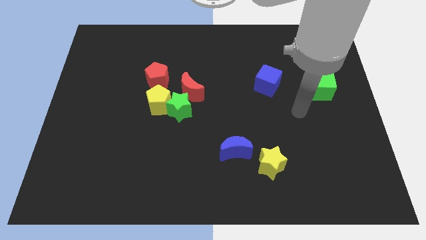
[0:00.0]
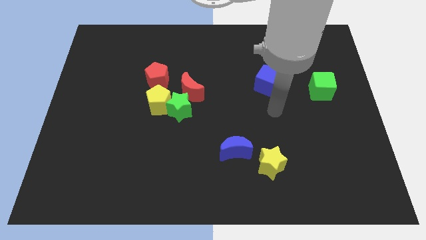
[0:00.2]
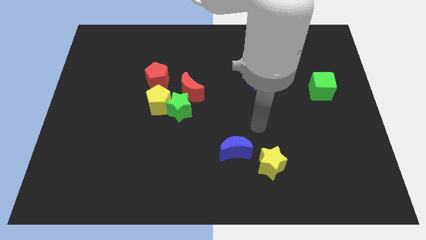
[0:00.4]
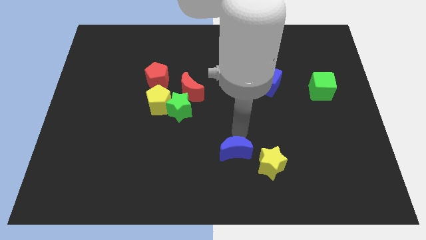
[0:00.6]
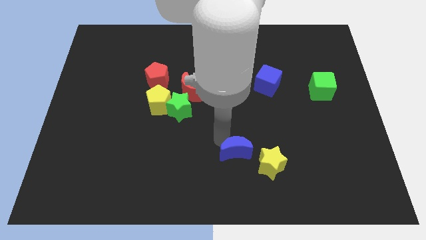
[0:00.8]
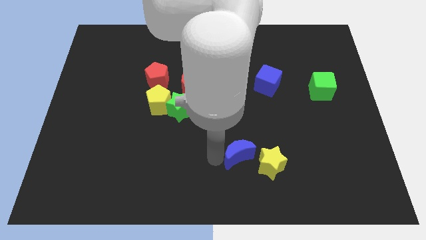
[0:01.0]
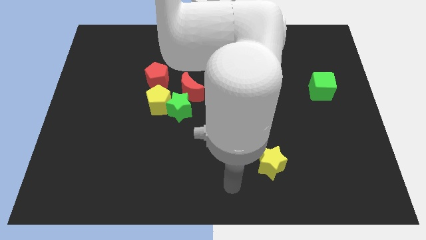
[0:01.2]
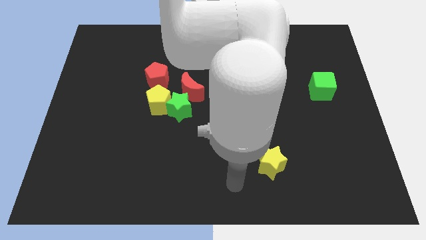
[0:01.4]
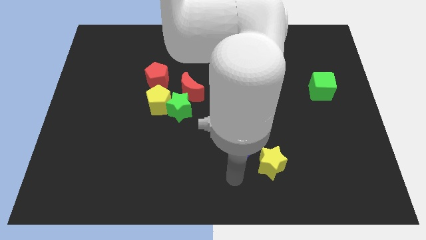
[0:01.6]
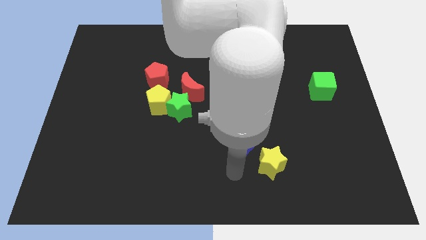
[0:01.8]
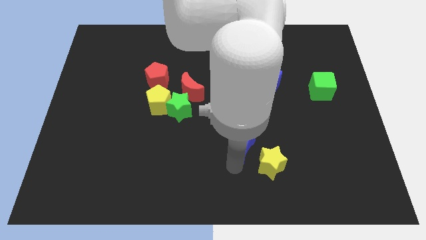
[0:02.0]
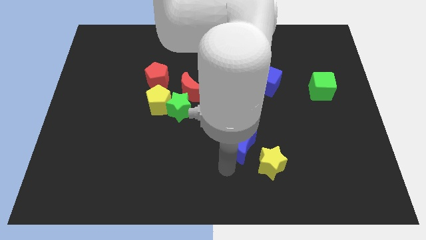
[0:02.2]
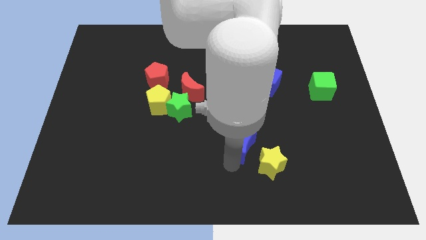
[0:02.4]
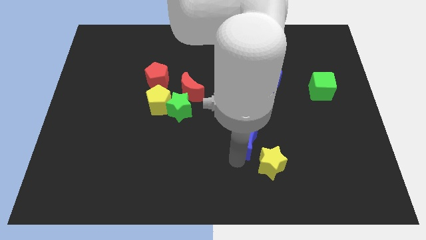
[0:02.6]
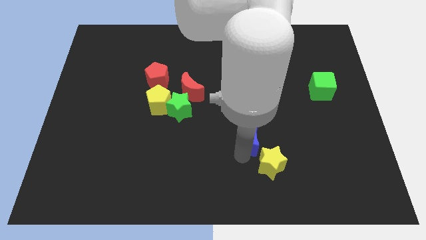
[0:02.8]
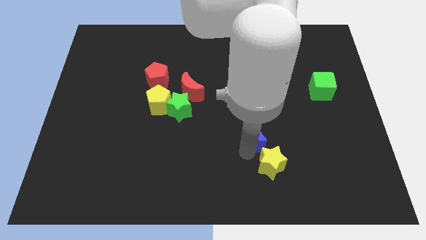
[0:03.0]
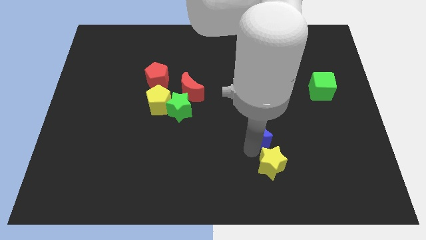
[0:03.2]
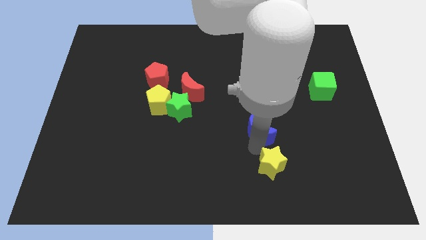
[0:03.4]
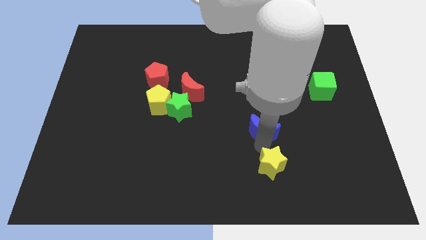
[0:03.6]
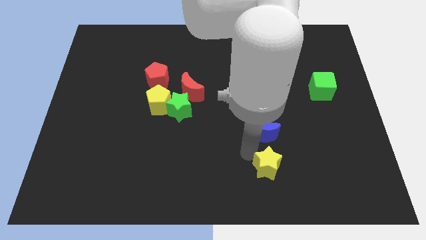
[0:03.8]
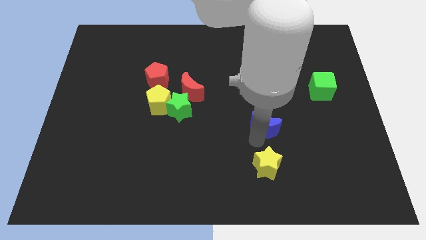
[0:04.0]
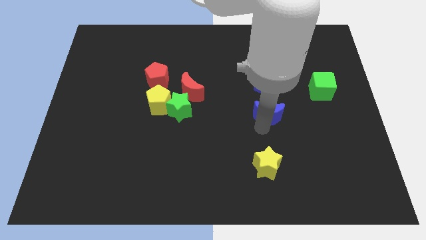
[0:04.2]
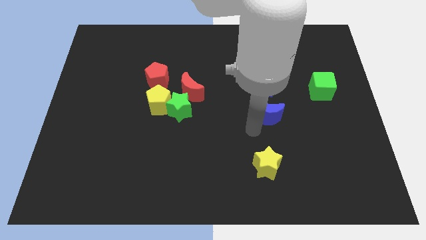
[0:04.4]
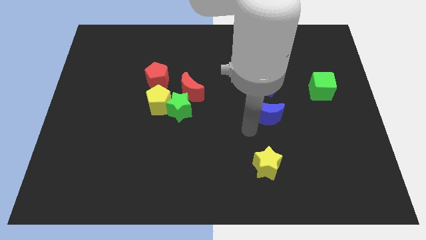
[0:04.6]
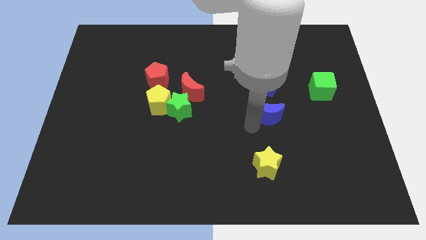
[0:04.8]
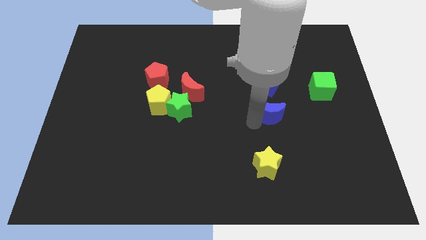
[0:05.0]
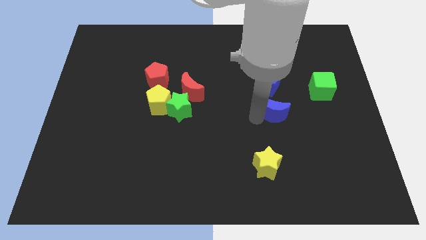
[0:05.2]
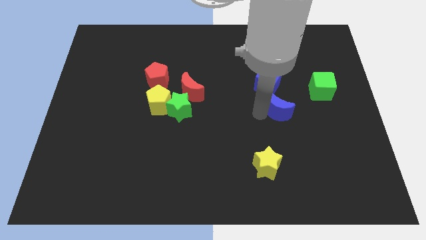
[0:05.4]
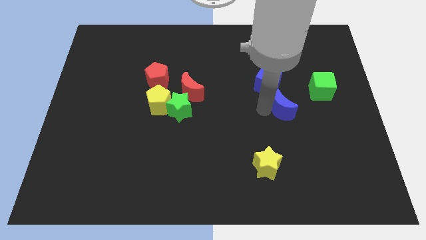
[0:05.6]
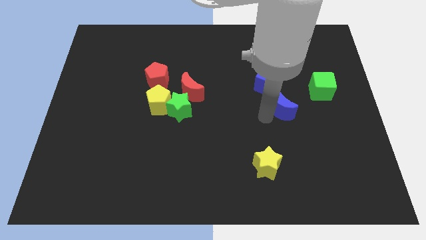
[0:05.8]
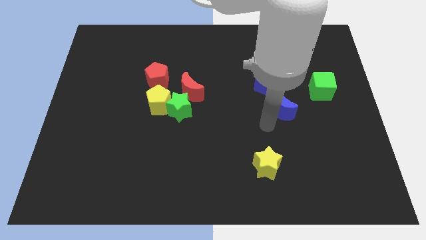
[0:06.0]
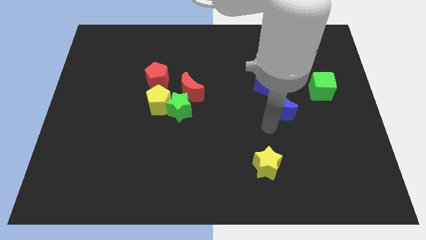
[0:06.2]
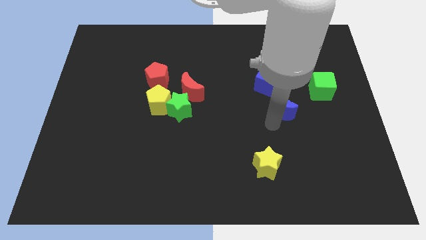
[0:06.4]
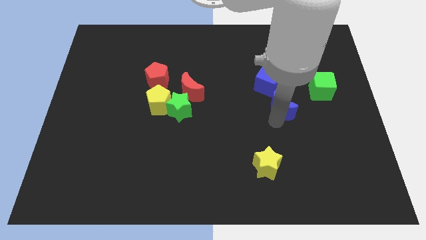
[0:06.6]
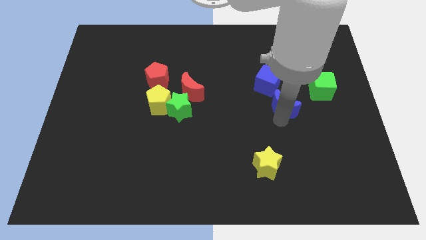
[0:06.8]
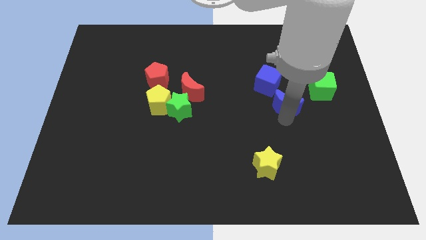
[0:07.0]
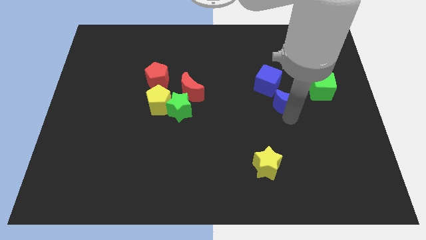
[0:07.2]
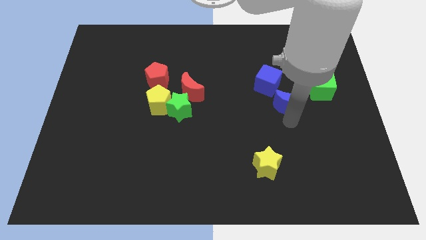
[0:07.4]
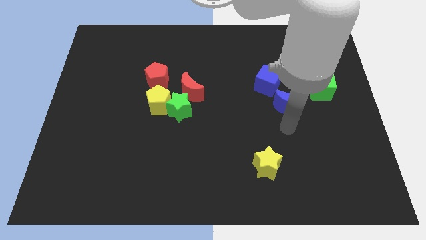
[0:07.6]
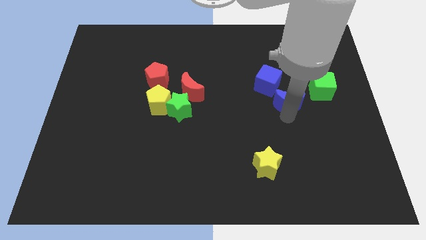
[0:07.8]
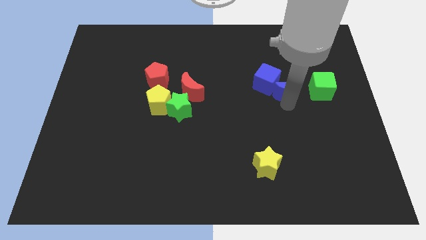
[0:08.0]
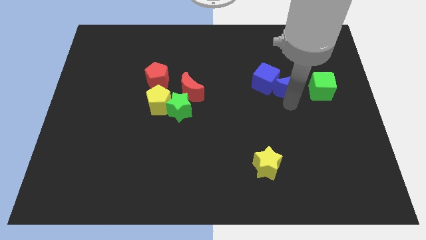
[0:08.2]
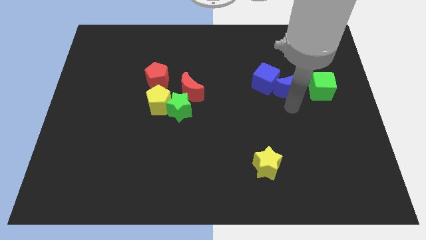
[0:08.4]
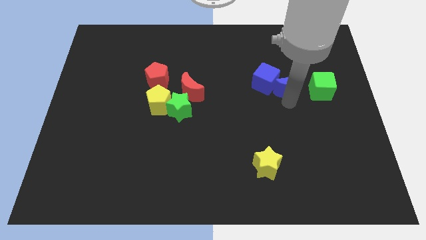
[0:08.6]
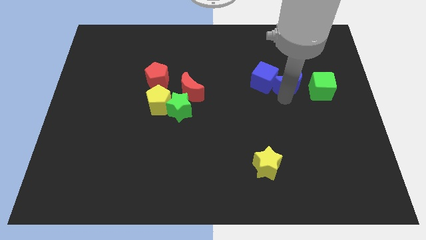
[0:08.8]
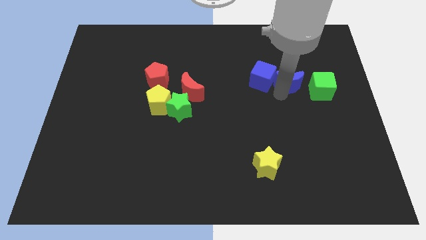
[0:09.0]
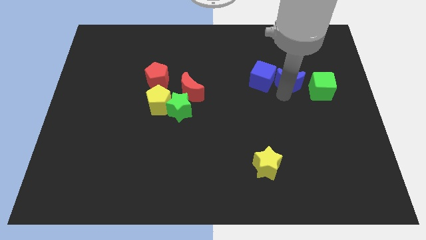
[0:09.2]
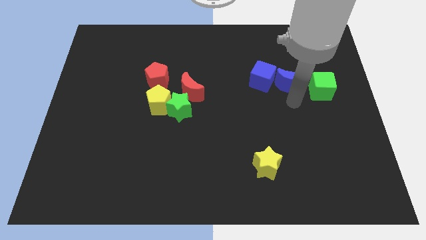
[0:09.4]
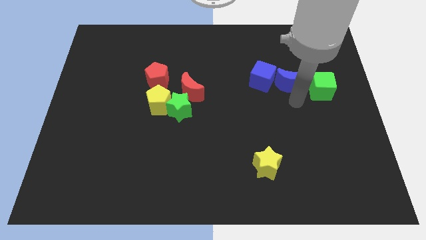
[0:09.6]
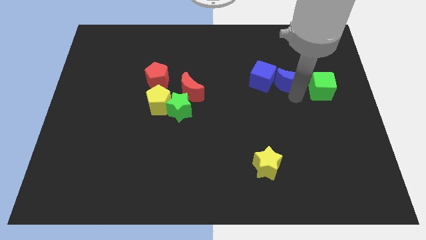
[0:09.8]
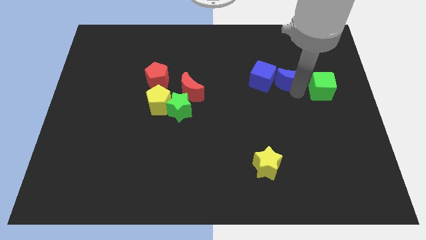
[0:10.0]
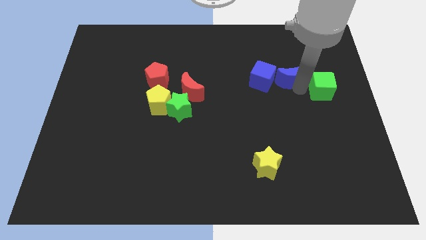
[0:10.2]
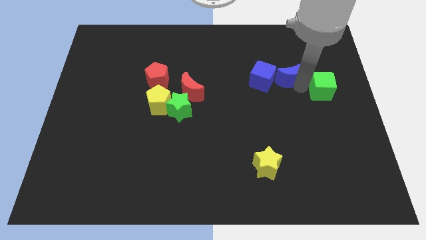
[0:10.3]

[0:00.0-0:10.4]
put the blue moon to the top right of the blue cube

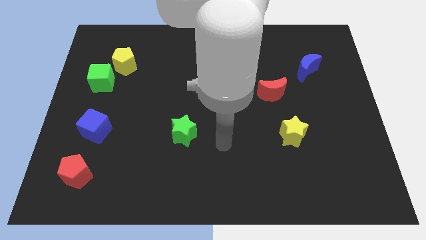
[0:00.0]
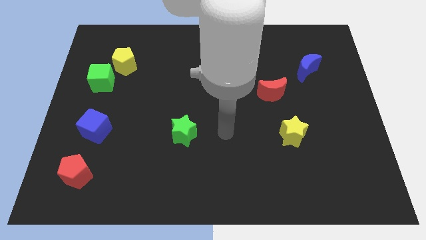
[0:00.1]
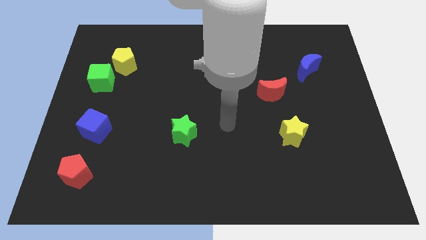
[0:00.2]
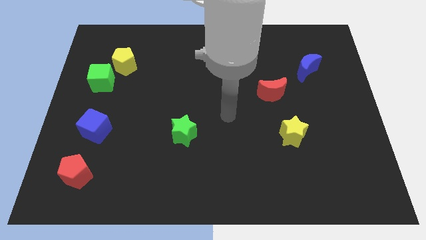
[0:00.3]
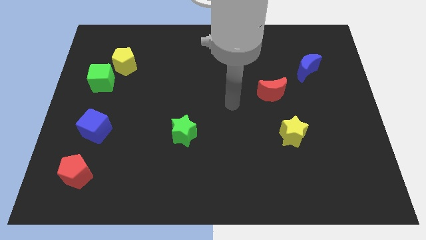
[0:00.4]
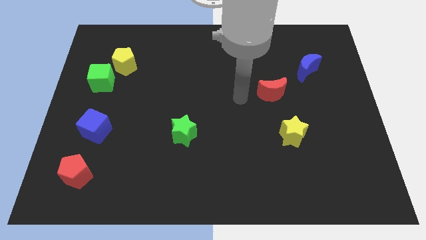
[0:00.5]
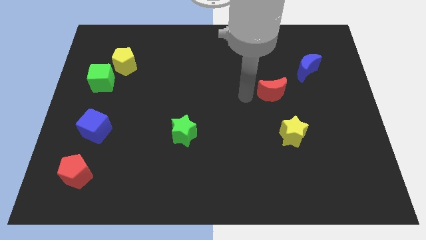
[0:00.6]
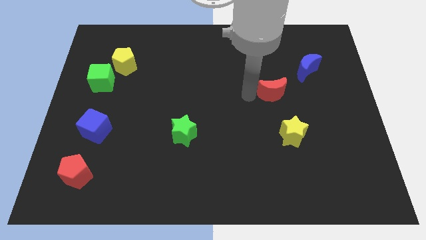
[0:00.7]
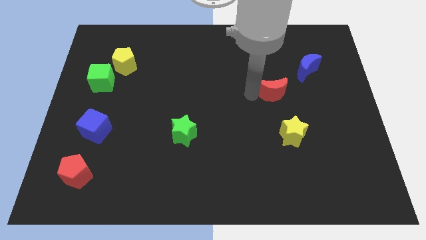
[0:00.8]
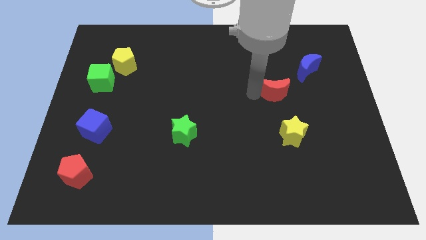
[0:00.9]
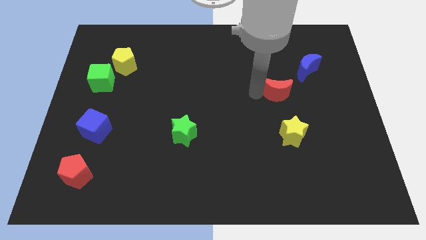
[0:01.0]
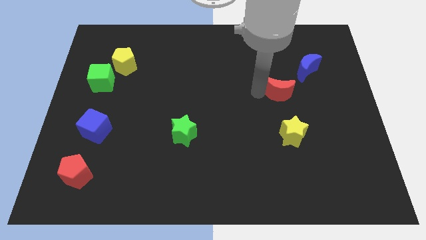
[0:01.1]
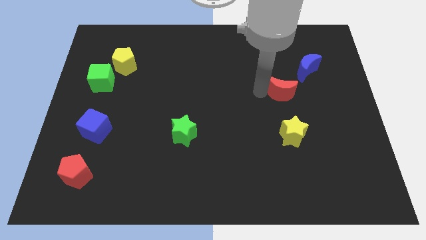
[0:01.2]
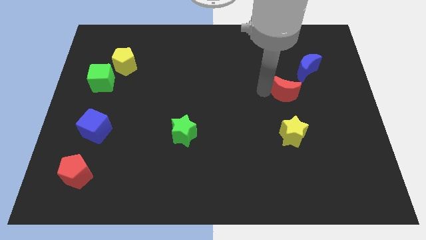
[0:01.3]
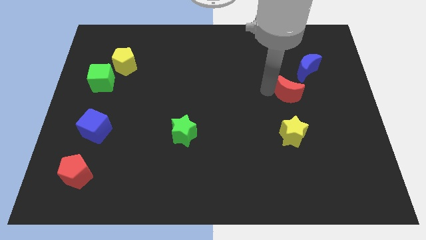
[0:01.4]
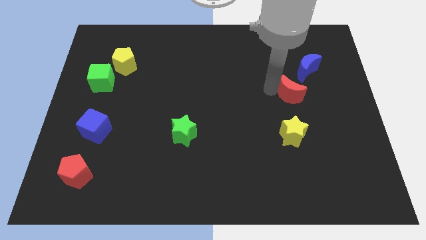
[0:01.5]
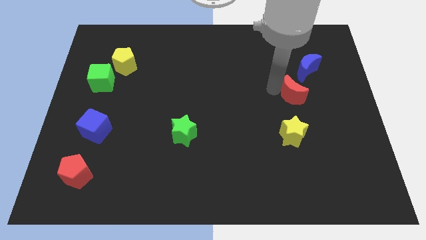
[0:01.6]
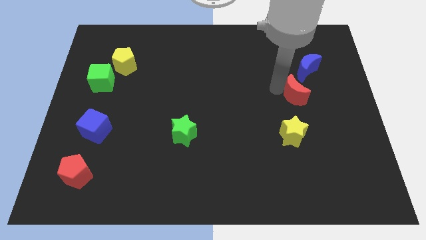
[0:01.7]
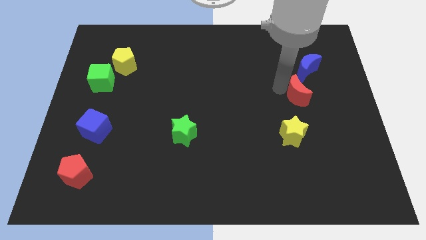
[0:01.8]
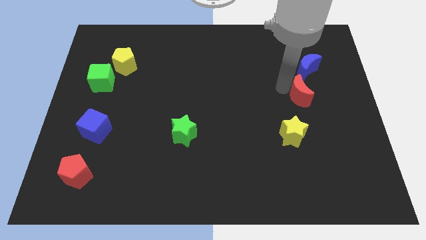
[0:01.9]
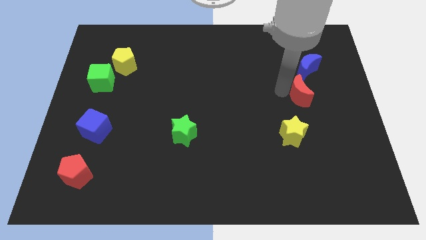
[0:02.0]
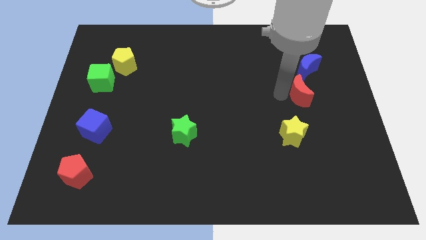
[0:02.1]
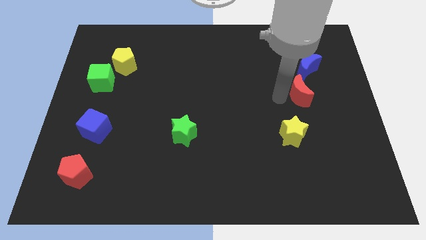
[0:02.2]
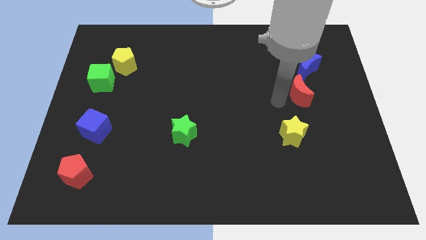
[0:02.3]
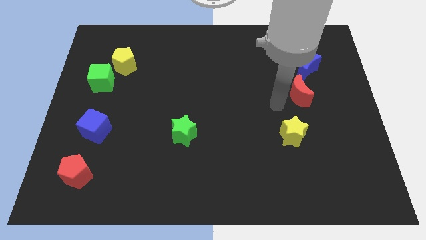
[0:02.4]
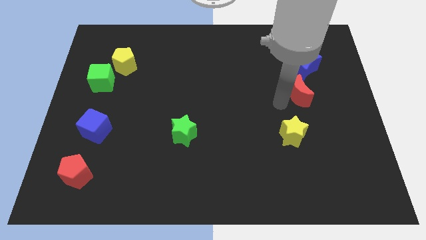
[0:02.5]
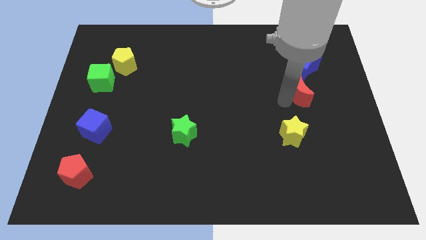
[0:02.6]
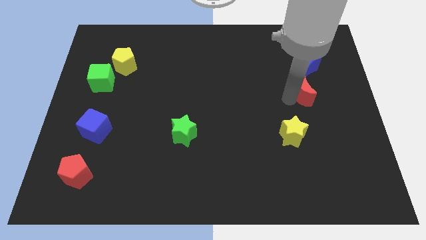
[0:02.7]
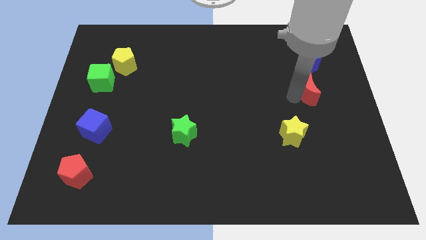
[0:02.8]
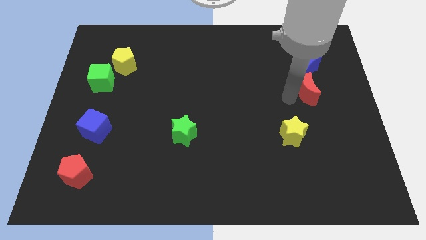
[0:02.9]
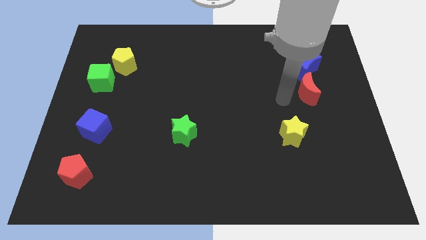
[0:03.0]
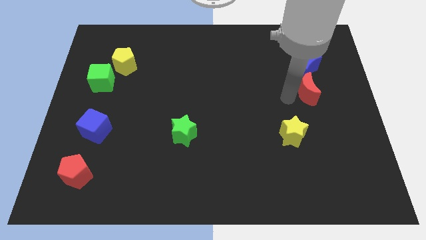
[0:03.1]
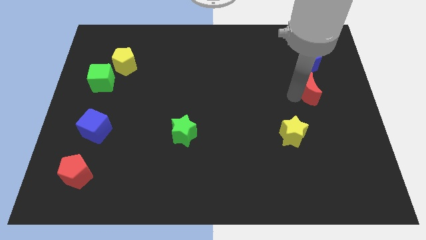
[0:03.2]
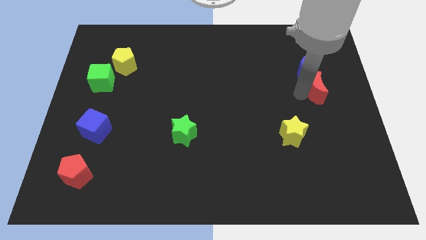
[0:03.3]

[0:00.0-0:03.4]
slide the red moon to the bottom right of the blue moon
